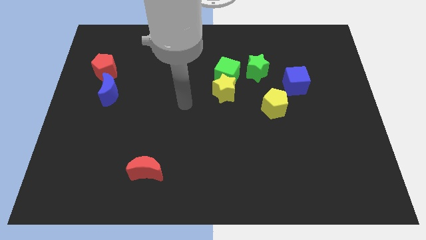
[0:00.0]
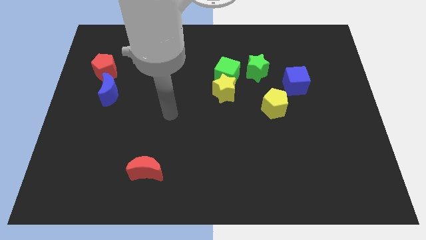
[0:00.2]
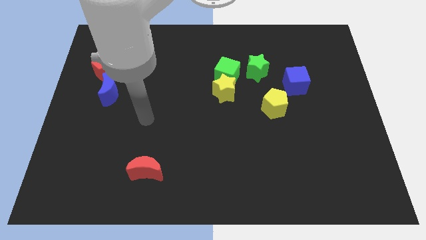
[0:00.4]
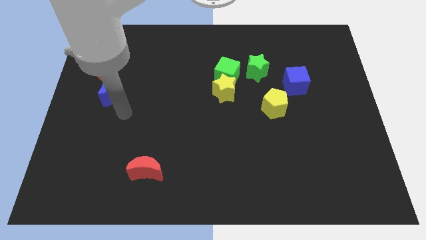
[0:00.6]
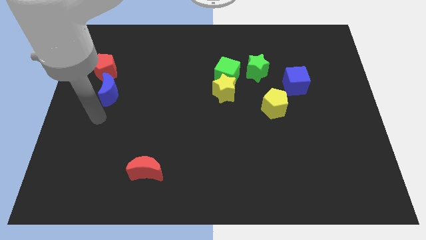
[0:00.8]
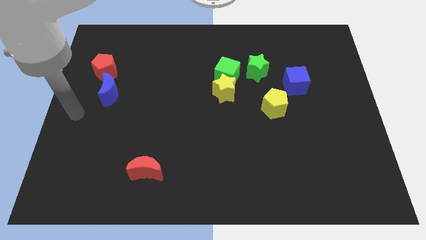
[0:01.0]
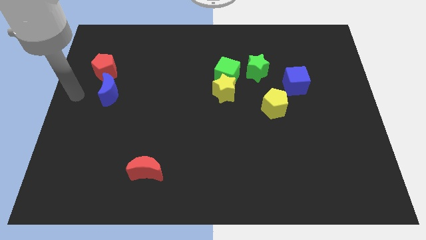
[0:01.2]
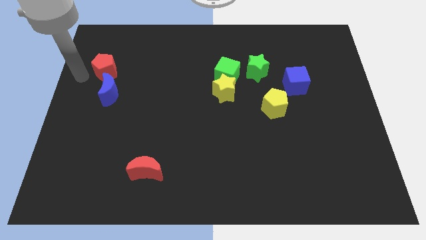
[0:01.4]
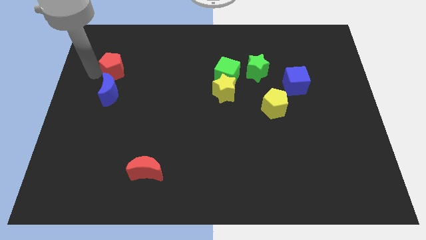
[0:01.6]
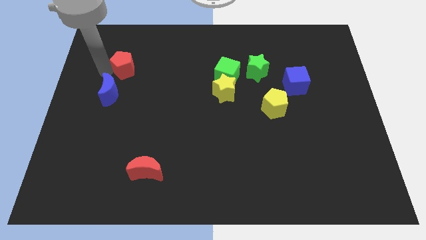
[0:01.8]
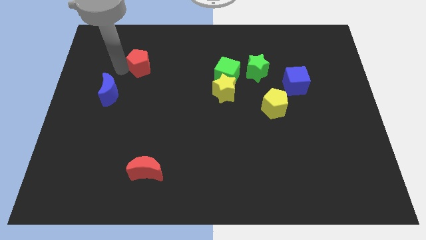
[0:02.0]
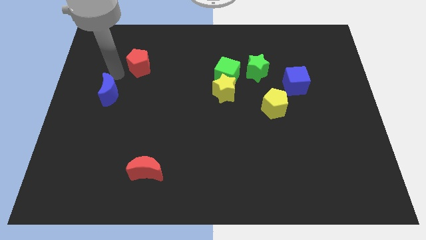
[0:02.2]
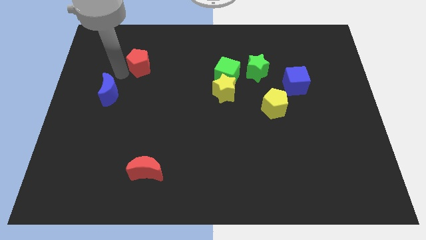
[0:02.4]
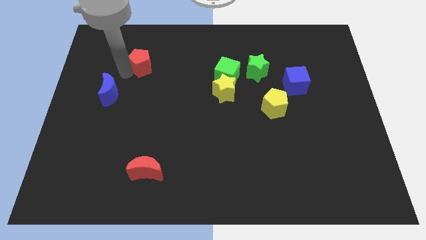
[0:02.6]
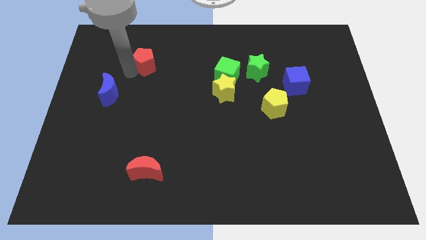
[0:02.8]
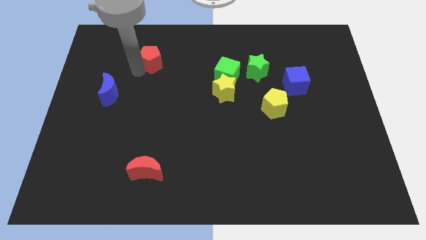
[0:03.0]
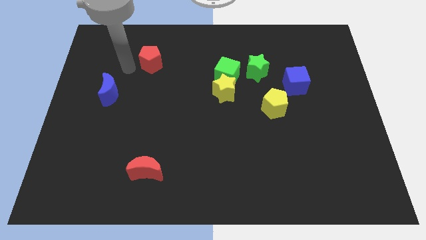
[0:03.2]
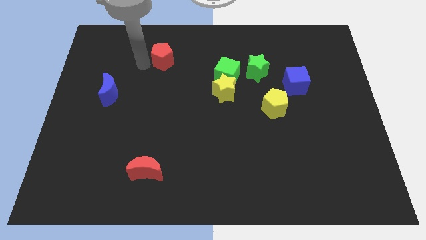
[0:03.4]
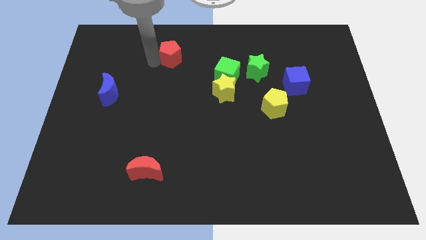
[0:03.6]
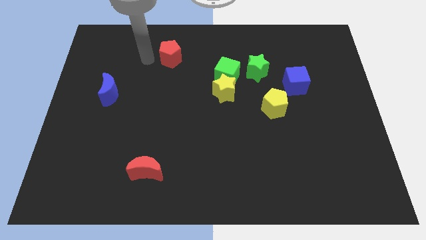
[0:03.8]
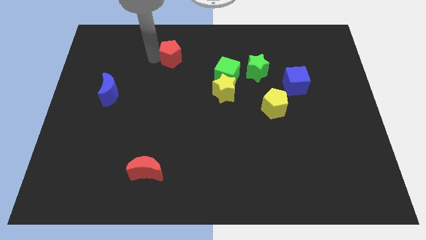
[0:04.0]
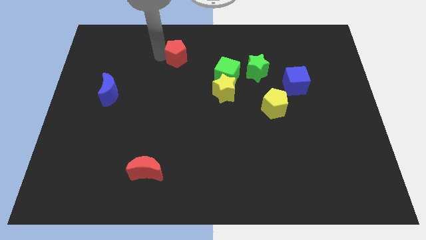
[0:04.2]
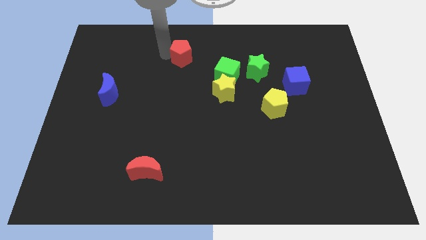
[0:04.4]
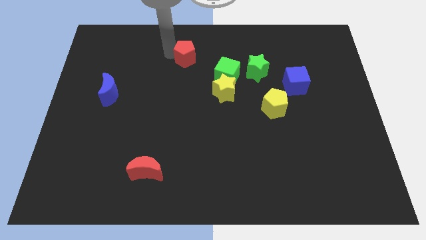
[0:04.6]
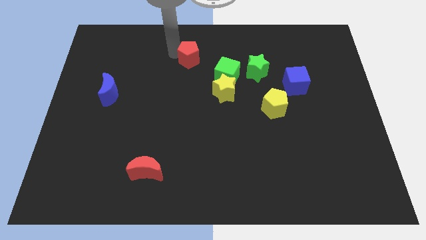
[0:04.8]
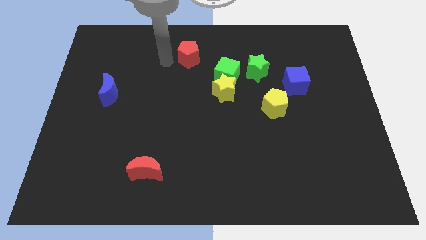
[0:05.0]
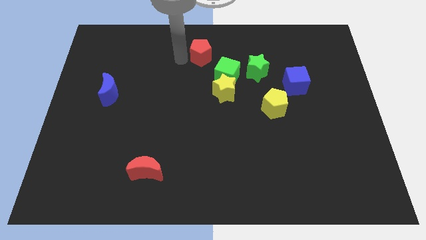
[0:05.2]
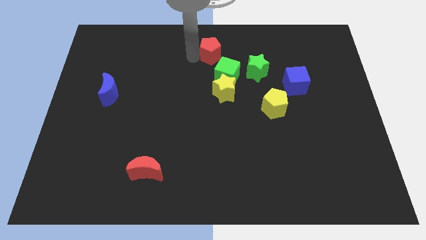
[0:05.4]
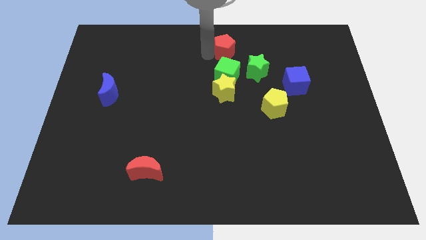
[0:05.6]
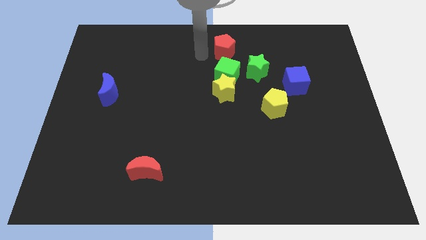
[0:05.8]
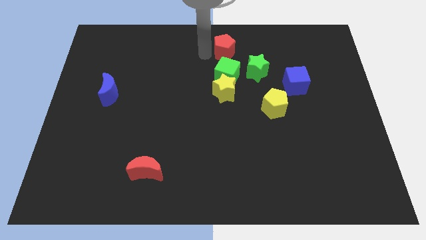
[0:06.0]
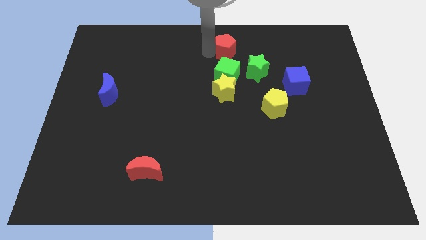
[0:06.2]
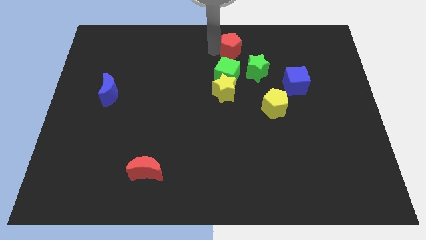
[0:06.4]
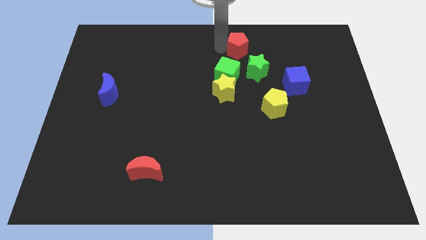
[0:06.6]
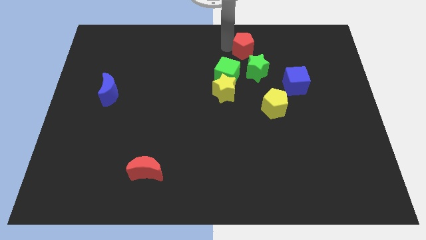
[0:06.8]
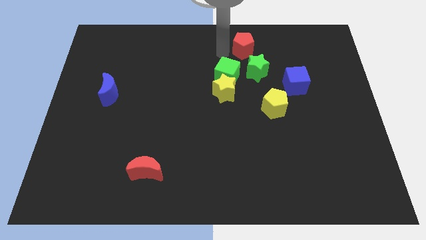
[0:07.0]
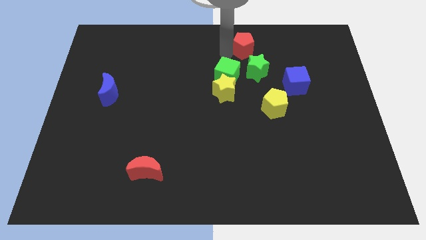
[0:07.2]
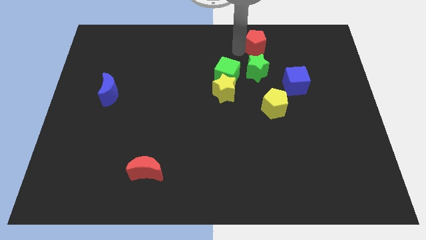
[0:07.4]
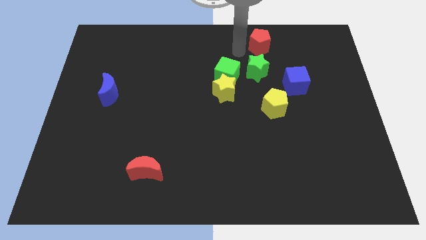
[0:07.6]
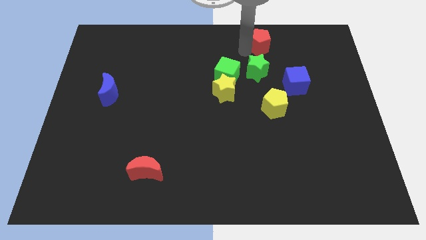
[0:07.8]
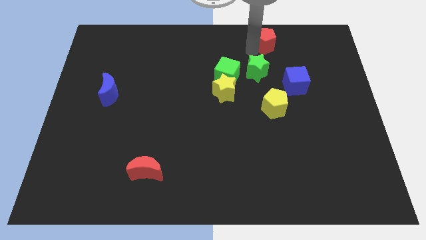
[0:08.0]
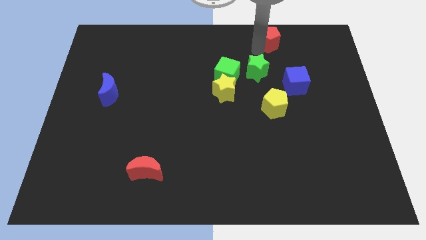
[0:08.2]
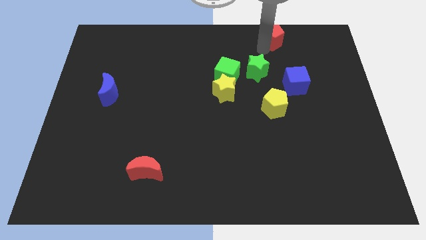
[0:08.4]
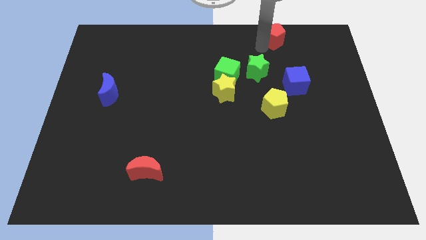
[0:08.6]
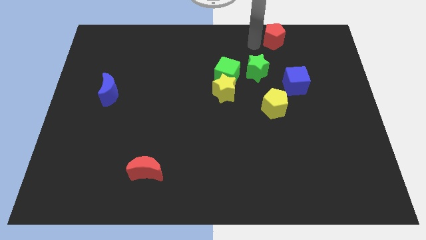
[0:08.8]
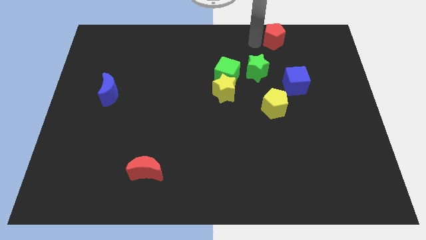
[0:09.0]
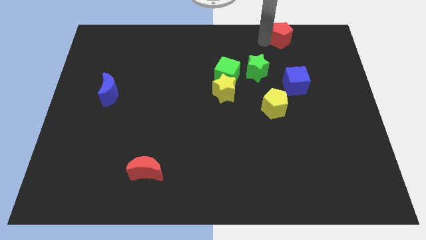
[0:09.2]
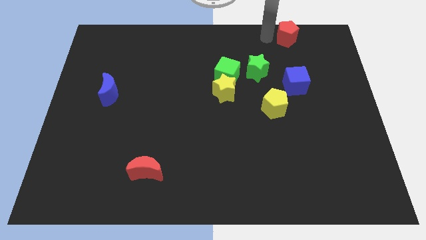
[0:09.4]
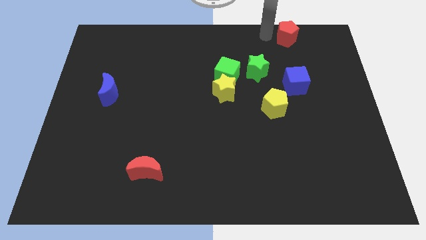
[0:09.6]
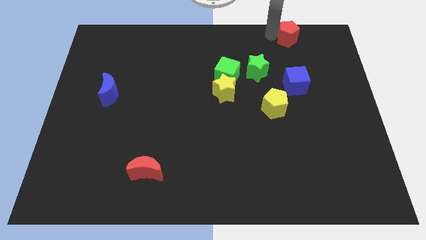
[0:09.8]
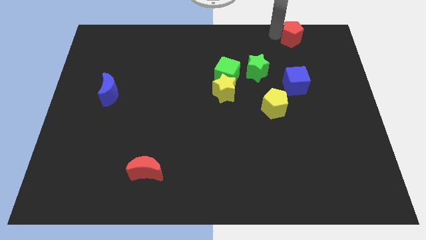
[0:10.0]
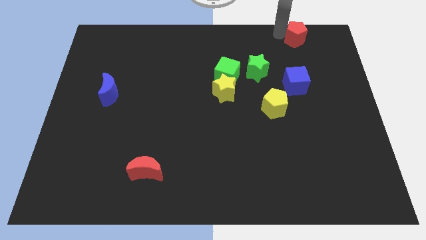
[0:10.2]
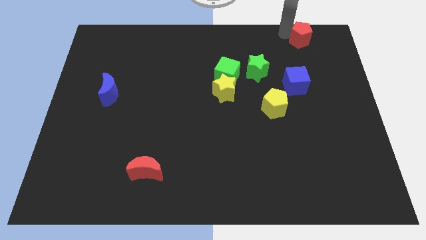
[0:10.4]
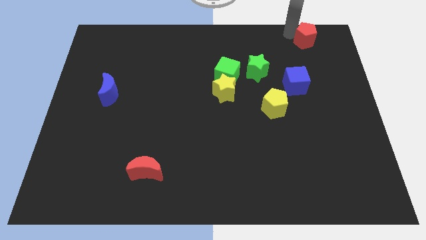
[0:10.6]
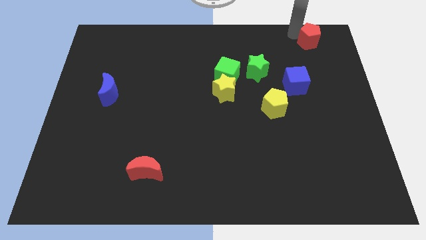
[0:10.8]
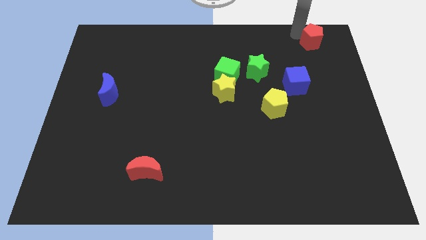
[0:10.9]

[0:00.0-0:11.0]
put the red pentagon to the top right corner

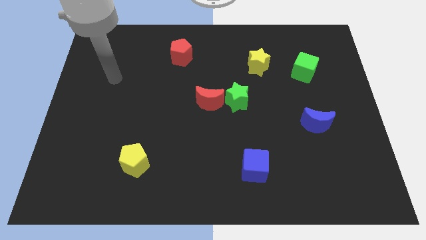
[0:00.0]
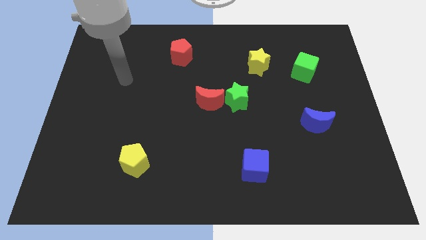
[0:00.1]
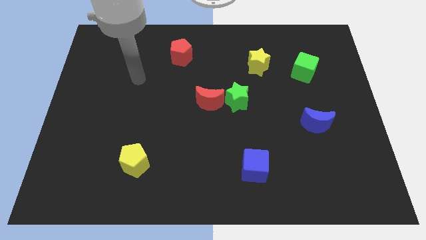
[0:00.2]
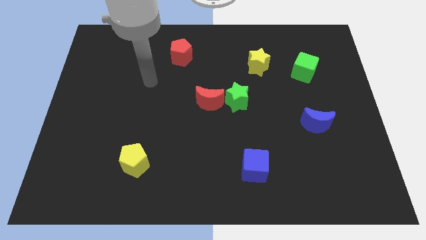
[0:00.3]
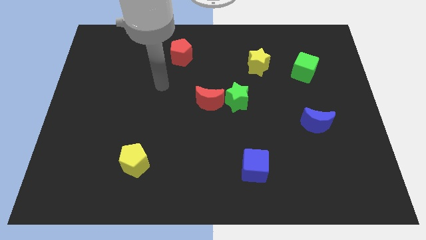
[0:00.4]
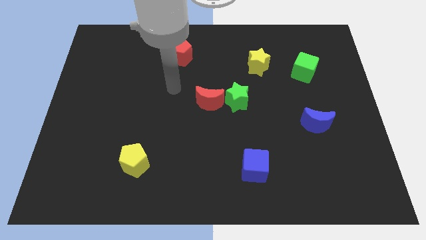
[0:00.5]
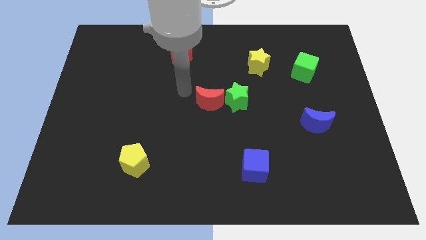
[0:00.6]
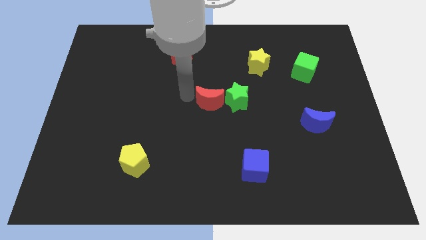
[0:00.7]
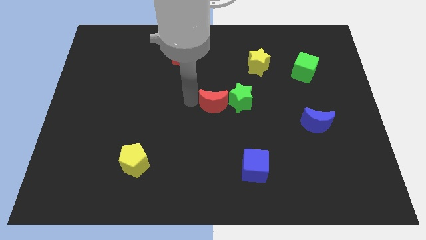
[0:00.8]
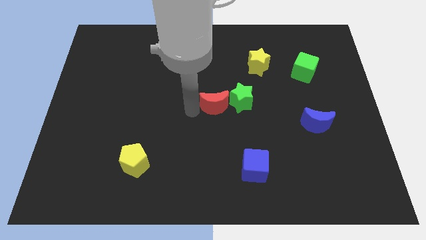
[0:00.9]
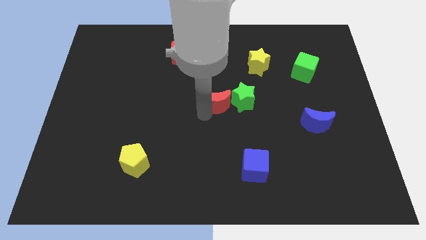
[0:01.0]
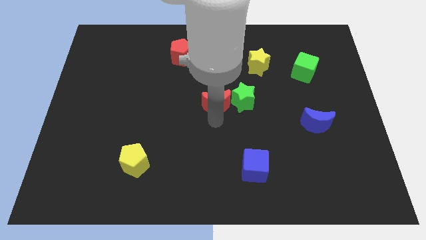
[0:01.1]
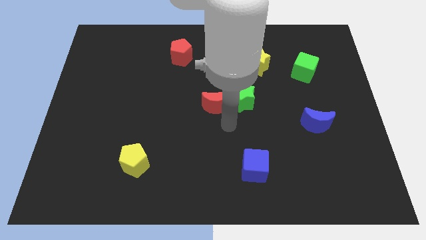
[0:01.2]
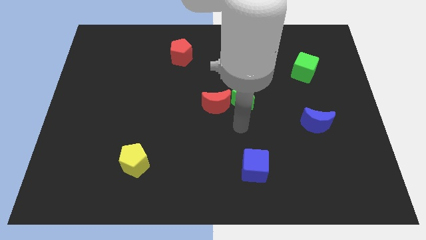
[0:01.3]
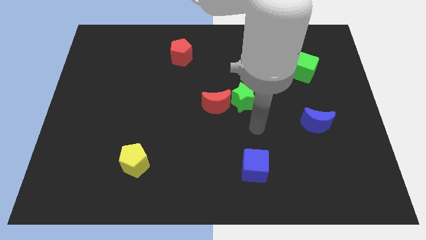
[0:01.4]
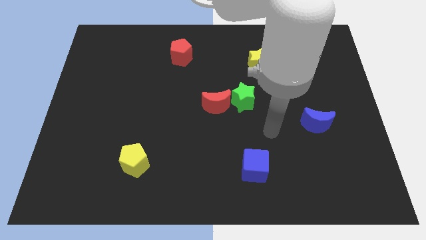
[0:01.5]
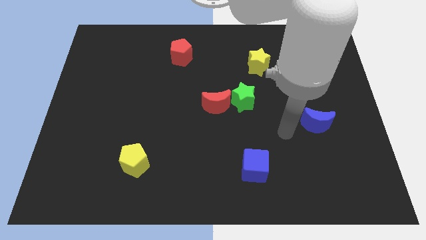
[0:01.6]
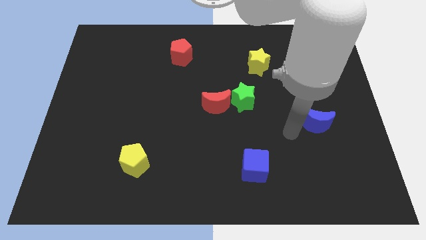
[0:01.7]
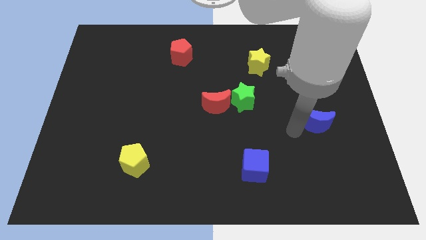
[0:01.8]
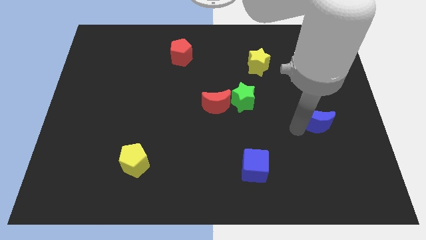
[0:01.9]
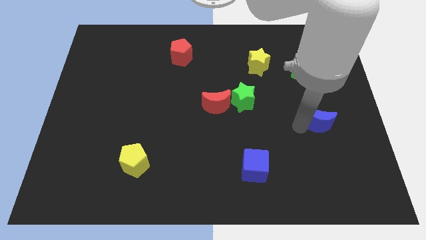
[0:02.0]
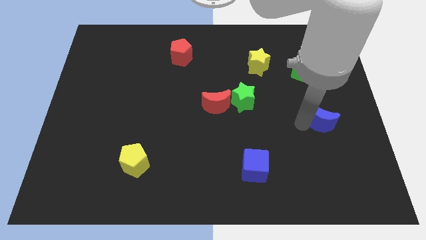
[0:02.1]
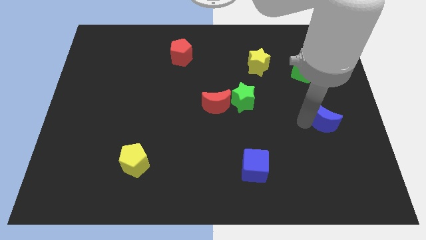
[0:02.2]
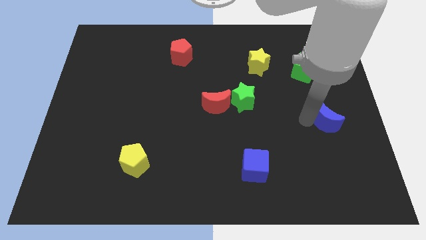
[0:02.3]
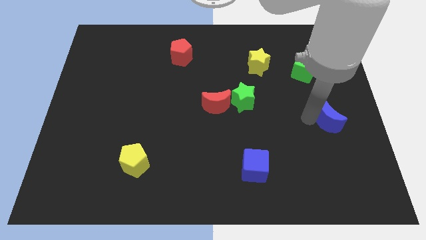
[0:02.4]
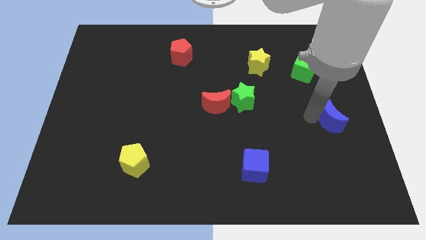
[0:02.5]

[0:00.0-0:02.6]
push the blue moon to the right side of the board
